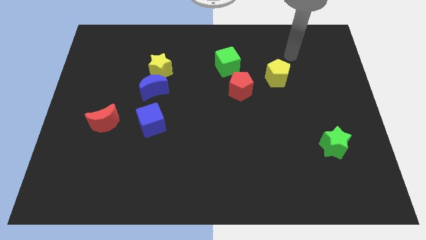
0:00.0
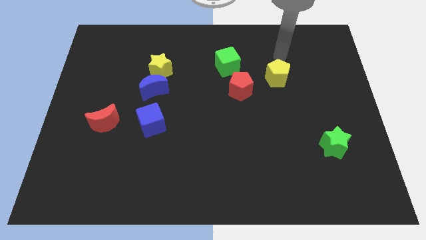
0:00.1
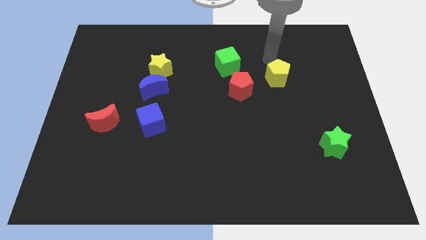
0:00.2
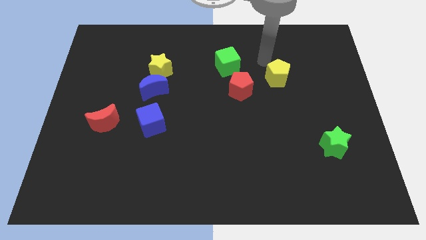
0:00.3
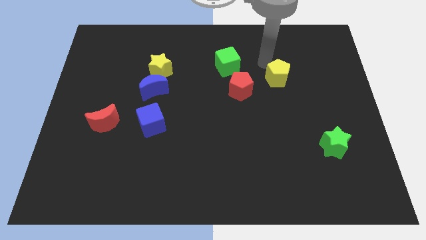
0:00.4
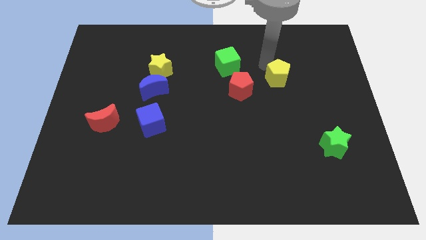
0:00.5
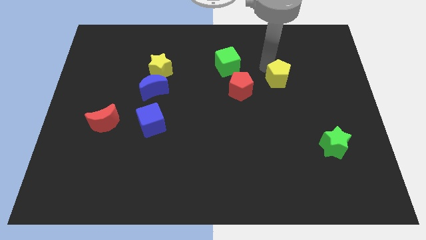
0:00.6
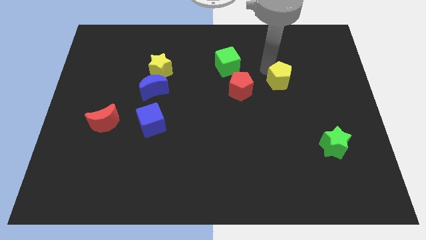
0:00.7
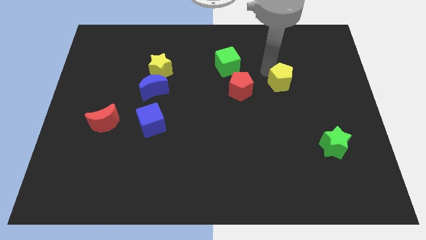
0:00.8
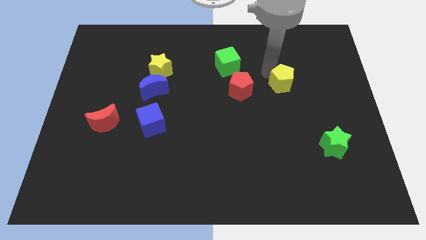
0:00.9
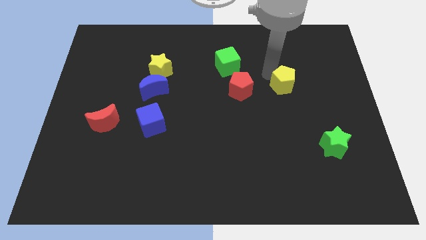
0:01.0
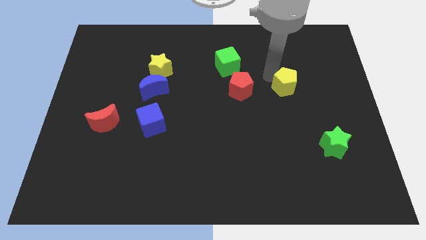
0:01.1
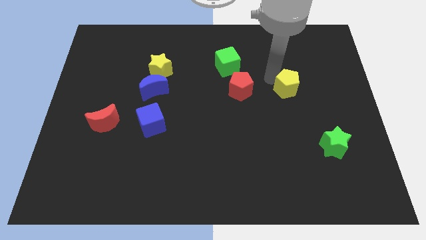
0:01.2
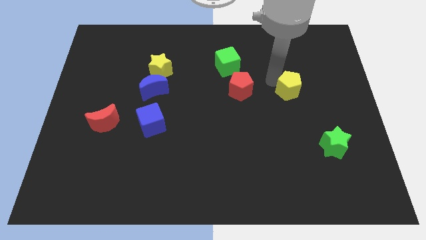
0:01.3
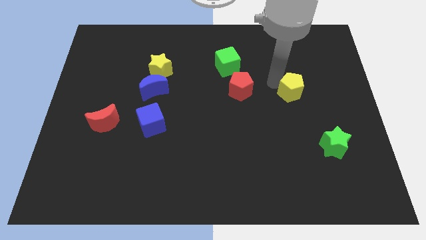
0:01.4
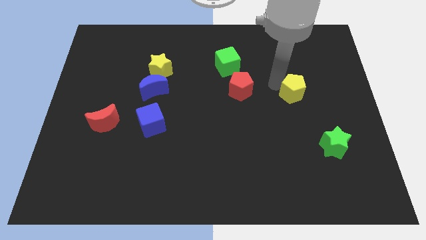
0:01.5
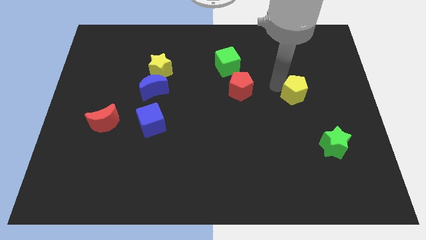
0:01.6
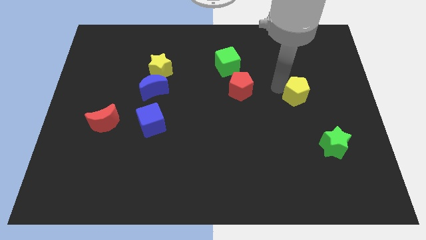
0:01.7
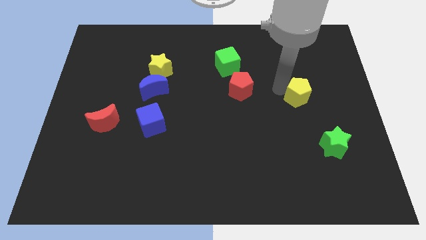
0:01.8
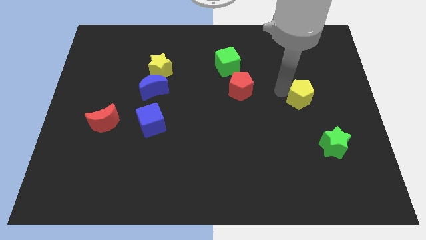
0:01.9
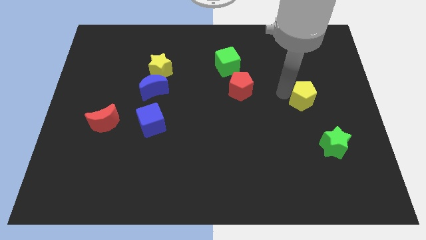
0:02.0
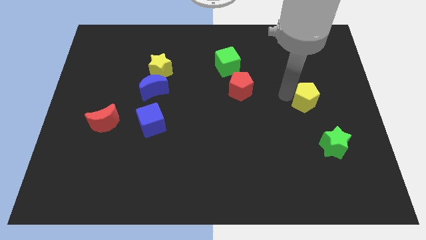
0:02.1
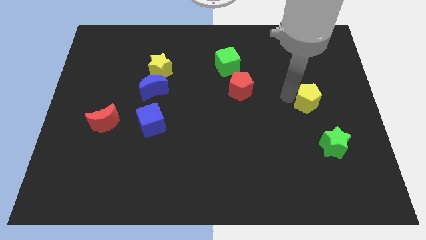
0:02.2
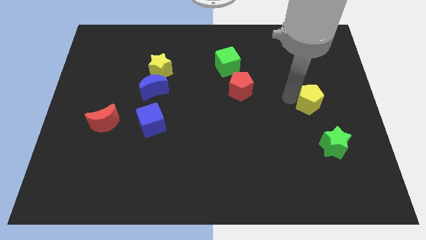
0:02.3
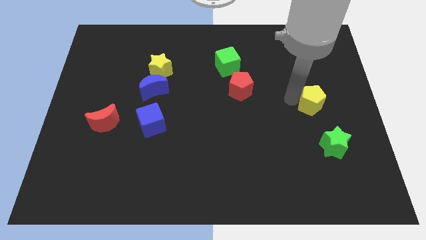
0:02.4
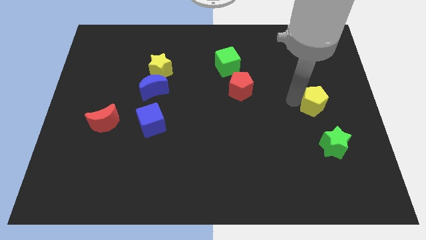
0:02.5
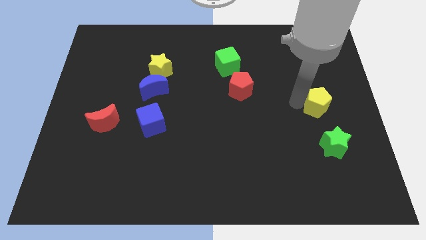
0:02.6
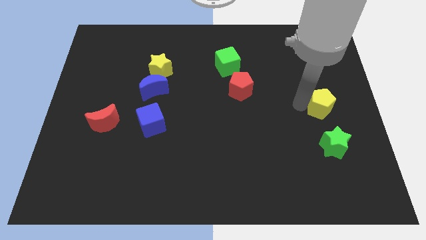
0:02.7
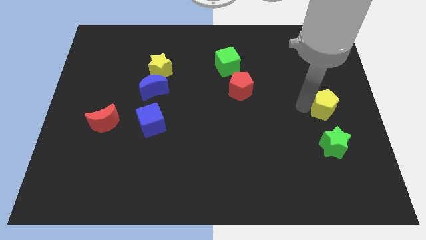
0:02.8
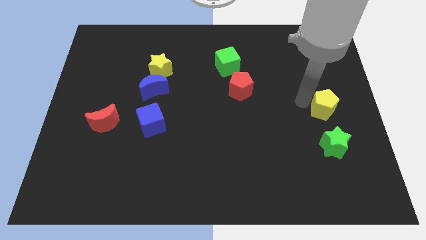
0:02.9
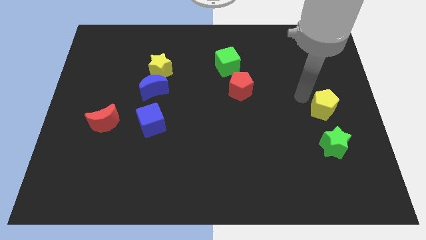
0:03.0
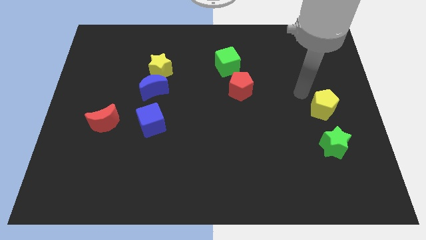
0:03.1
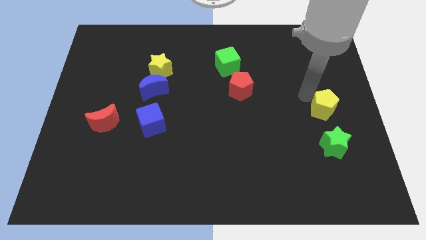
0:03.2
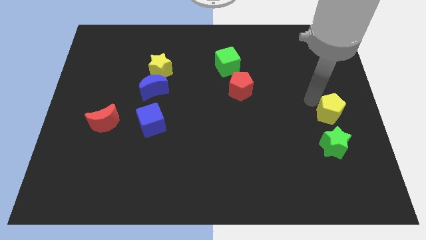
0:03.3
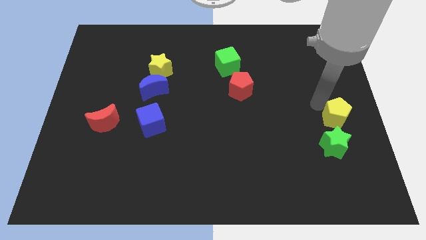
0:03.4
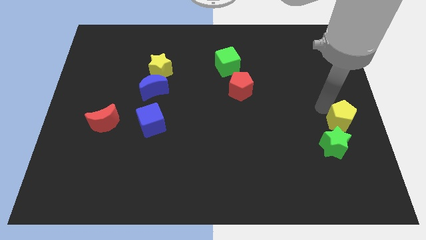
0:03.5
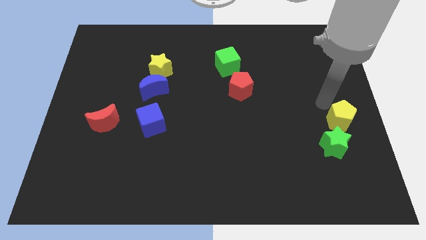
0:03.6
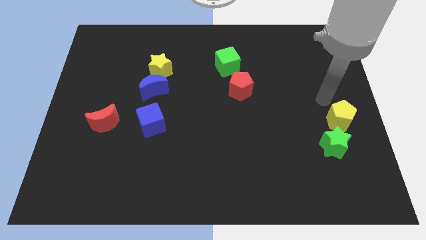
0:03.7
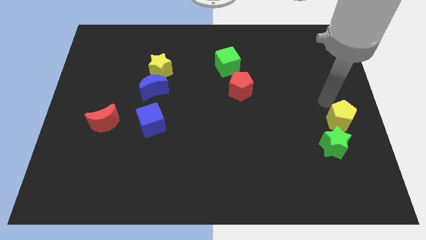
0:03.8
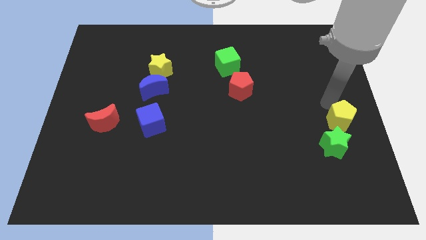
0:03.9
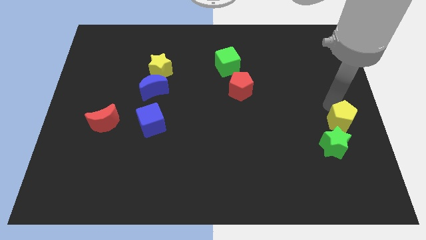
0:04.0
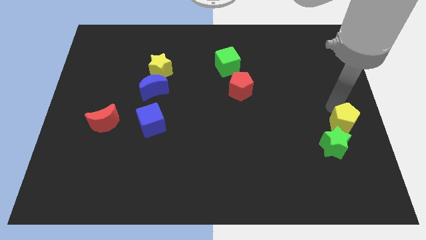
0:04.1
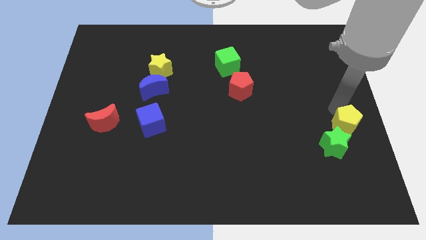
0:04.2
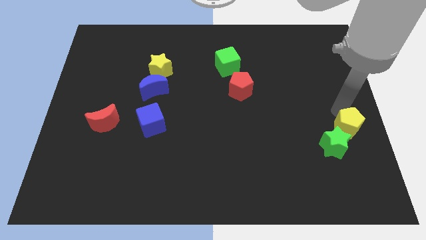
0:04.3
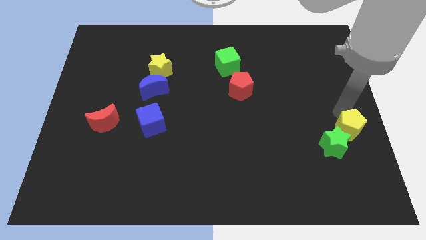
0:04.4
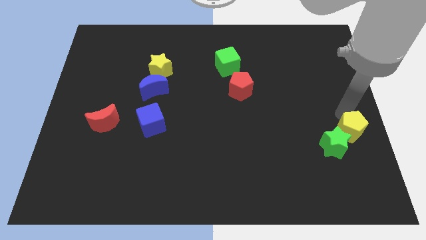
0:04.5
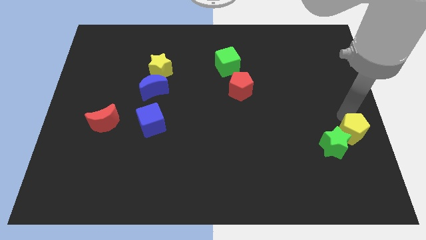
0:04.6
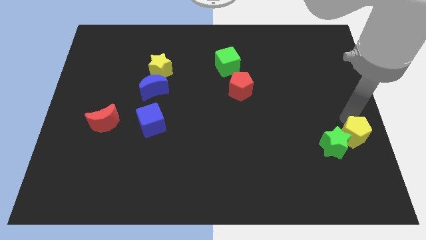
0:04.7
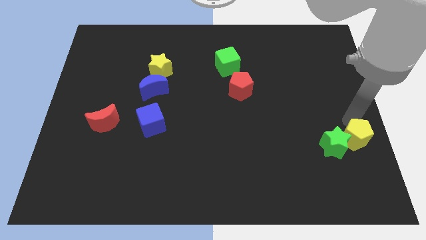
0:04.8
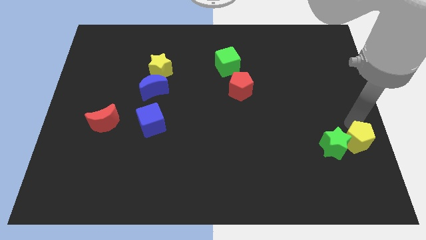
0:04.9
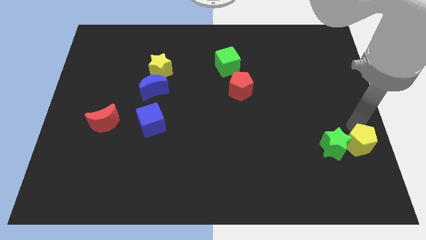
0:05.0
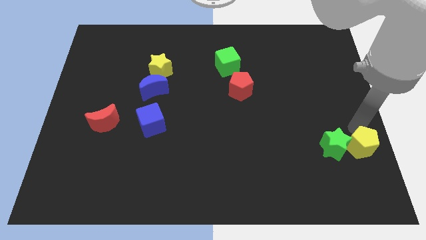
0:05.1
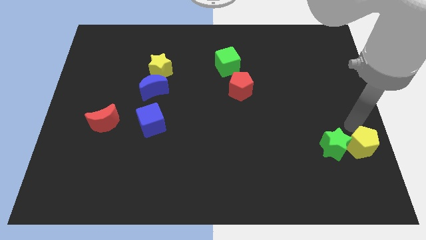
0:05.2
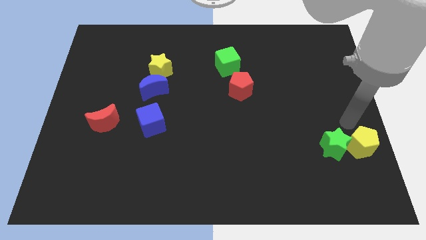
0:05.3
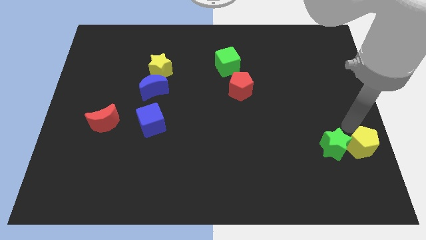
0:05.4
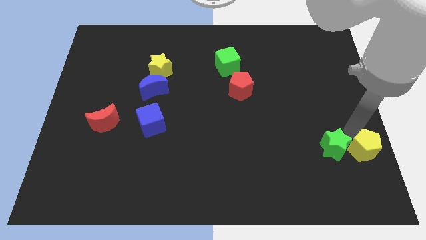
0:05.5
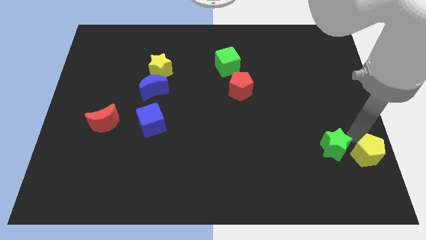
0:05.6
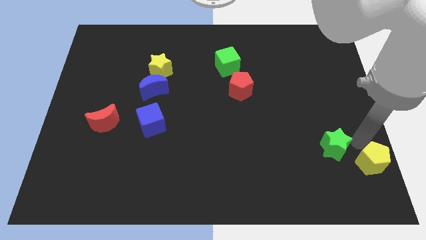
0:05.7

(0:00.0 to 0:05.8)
push the yellow pentagon to the bottom right corner
